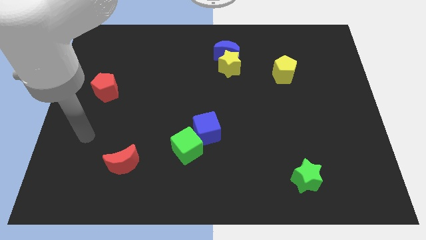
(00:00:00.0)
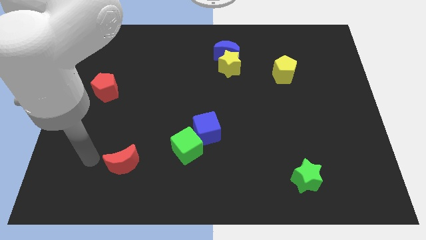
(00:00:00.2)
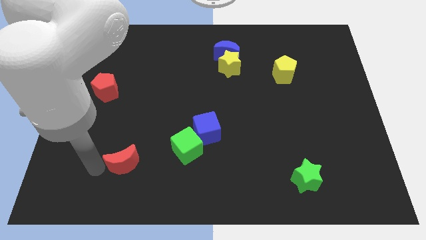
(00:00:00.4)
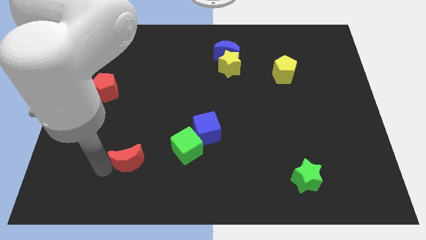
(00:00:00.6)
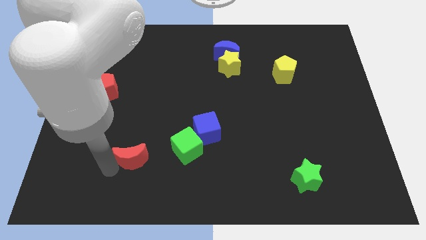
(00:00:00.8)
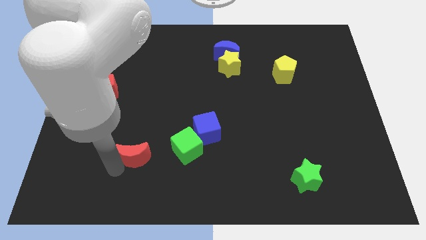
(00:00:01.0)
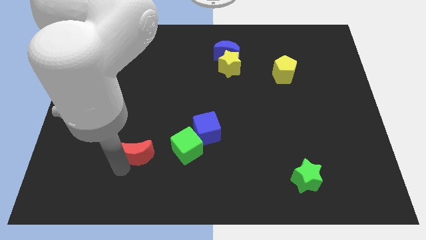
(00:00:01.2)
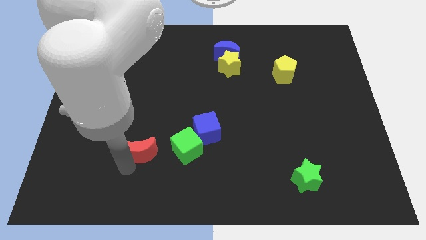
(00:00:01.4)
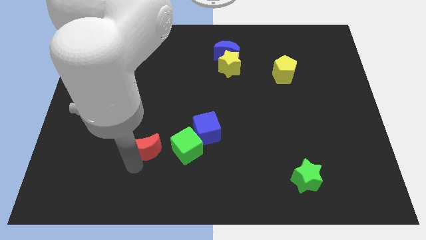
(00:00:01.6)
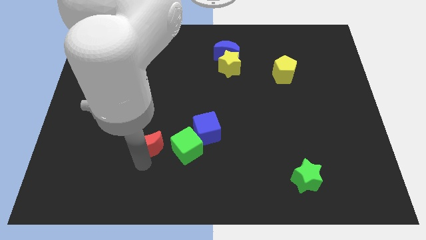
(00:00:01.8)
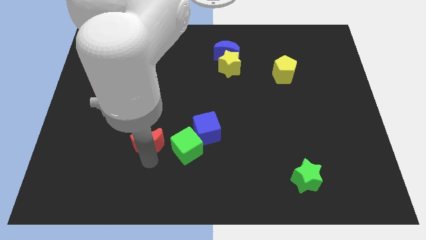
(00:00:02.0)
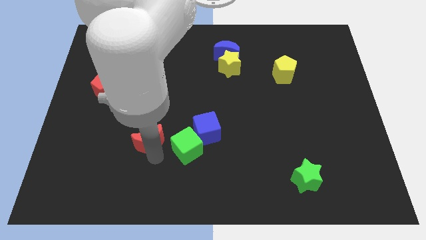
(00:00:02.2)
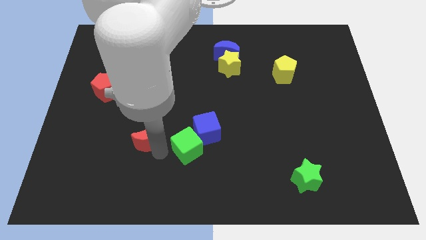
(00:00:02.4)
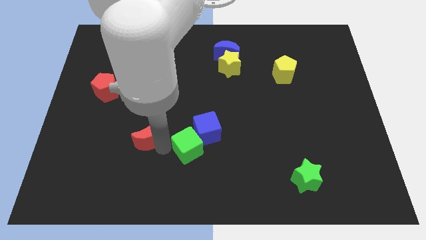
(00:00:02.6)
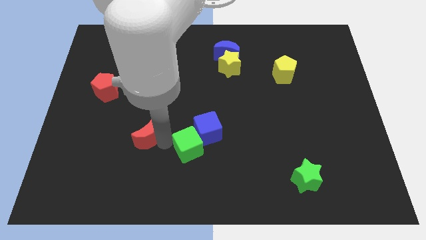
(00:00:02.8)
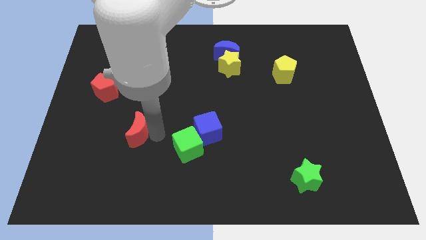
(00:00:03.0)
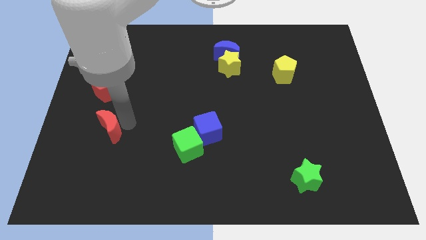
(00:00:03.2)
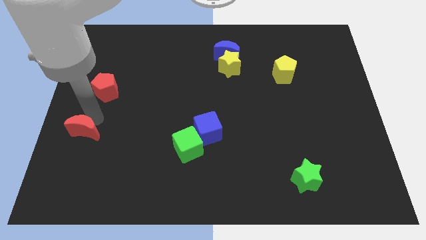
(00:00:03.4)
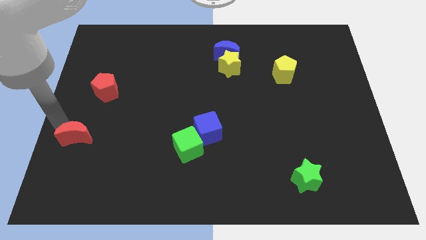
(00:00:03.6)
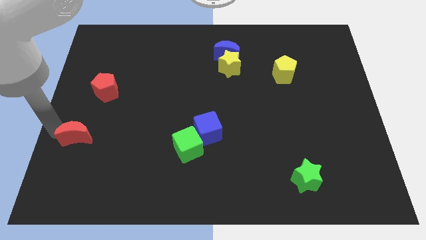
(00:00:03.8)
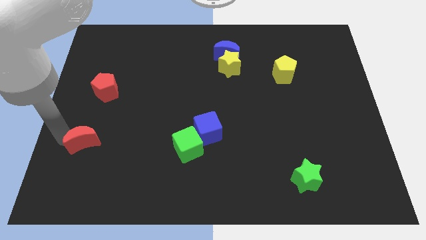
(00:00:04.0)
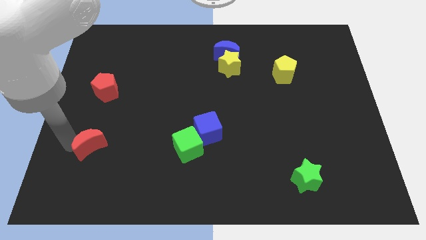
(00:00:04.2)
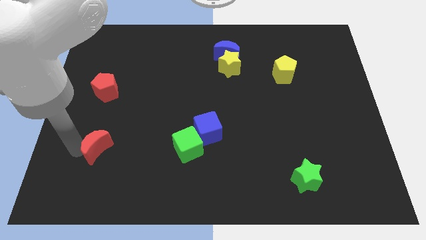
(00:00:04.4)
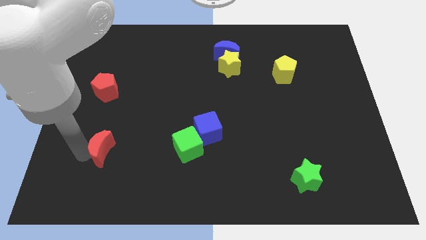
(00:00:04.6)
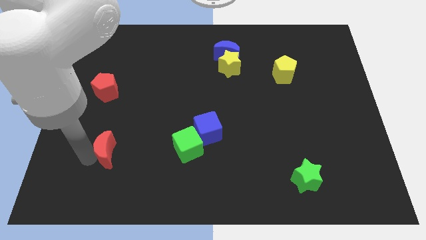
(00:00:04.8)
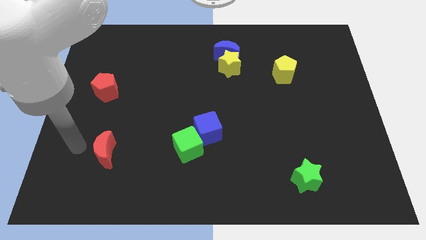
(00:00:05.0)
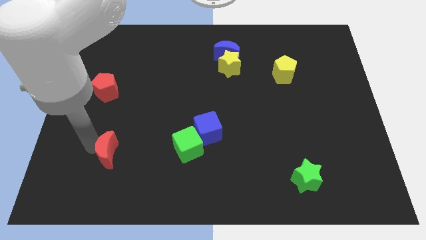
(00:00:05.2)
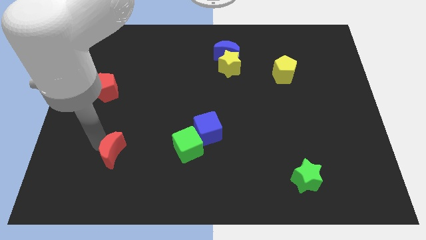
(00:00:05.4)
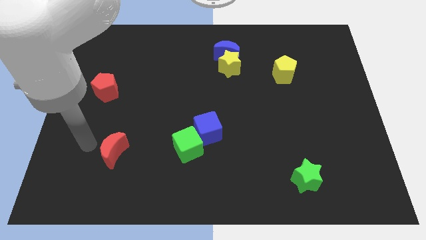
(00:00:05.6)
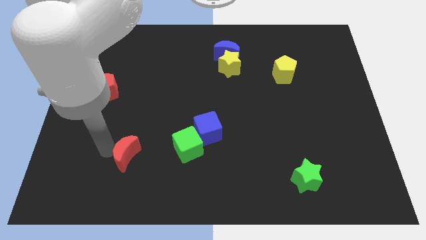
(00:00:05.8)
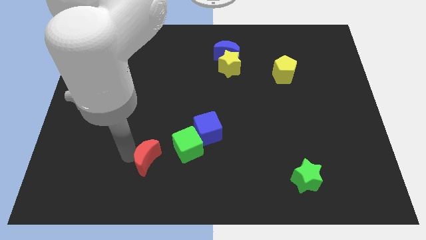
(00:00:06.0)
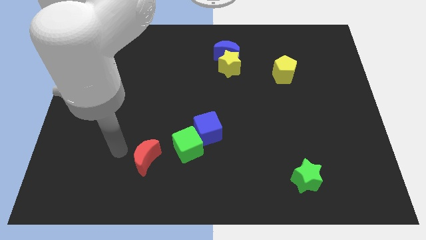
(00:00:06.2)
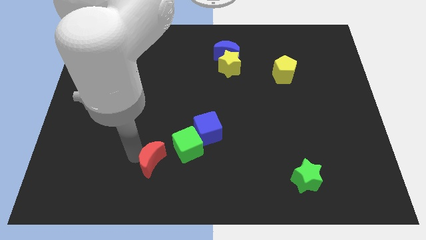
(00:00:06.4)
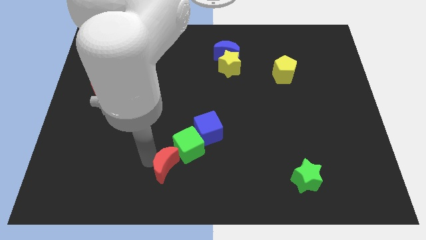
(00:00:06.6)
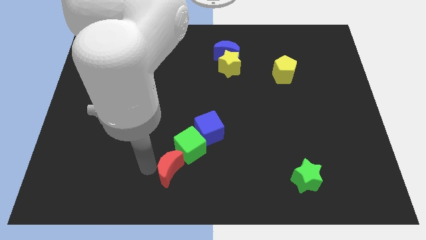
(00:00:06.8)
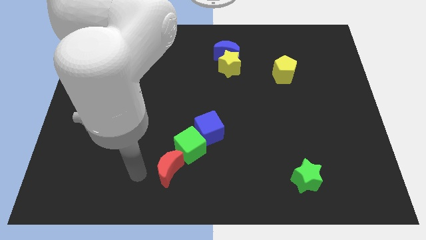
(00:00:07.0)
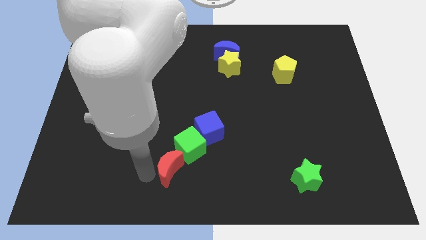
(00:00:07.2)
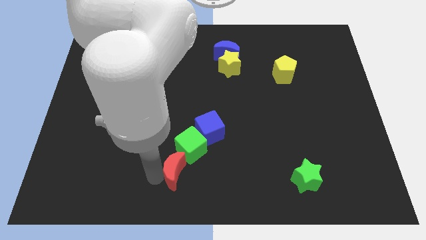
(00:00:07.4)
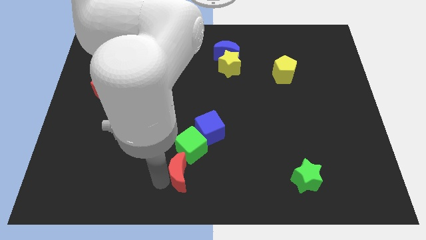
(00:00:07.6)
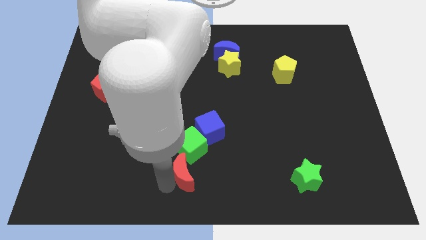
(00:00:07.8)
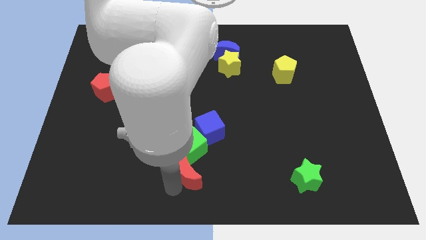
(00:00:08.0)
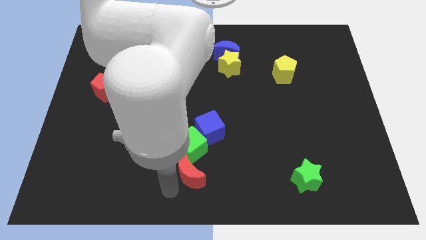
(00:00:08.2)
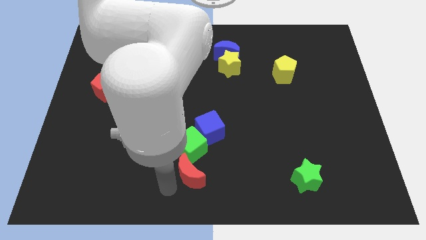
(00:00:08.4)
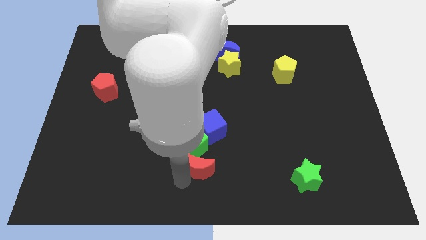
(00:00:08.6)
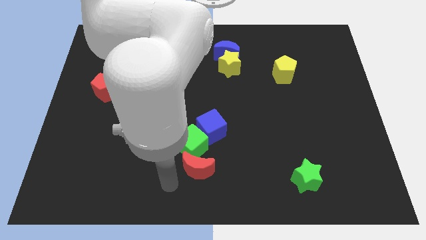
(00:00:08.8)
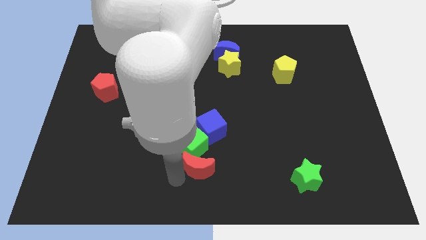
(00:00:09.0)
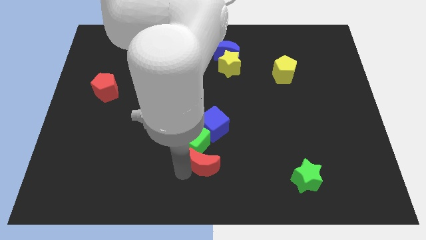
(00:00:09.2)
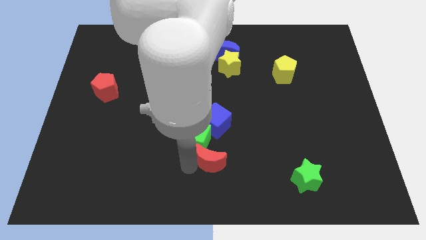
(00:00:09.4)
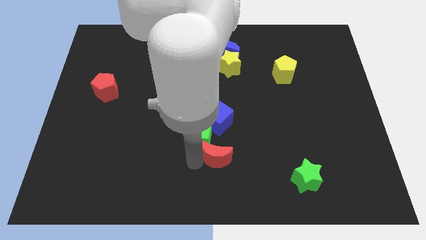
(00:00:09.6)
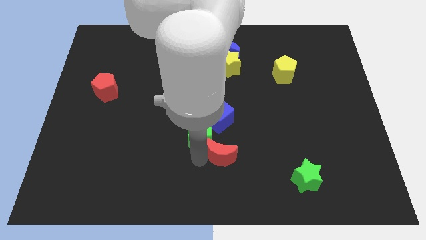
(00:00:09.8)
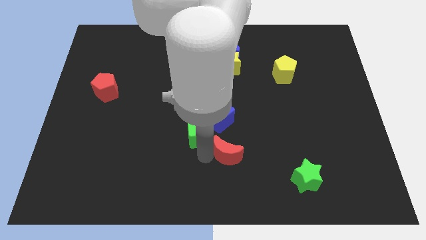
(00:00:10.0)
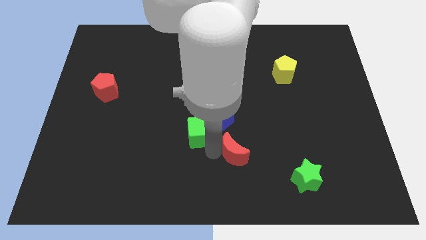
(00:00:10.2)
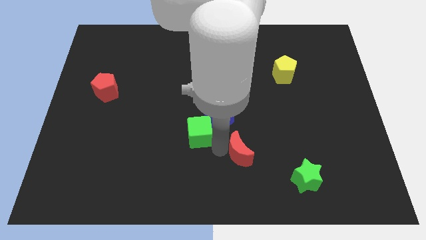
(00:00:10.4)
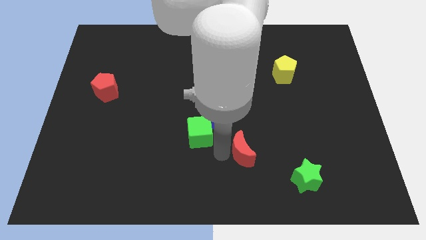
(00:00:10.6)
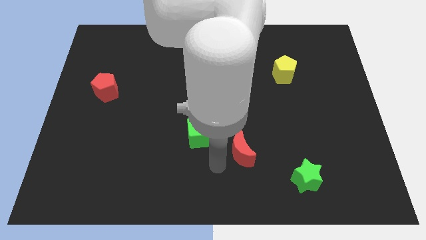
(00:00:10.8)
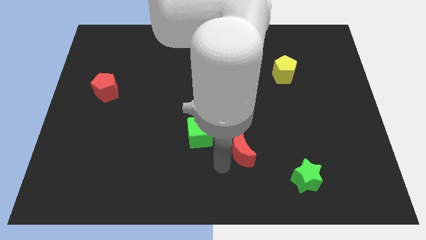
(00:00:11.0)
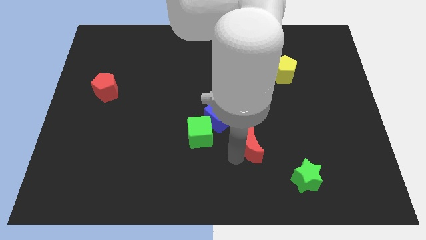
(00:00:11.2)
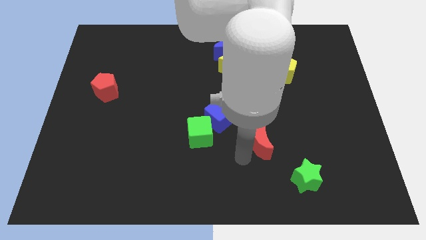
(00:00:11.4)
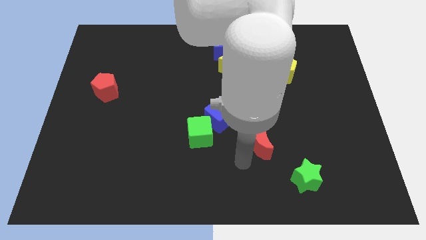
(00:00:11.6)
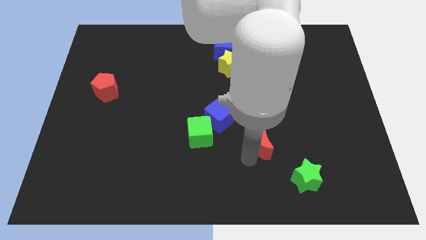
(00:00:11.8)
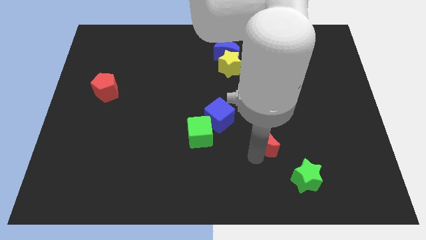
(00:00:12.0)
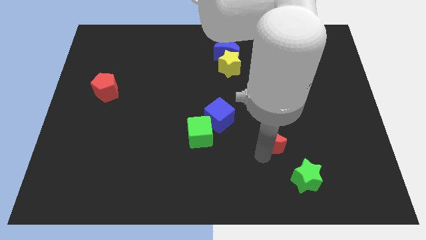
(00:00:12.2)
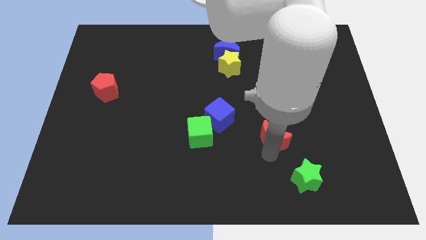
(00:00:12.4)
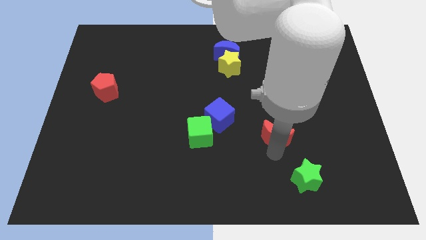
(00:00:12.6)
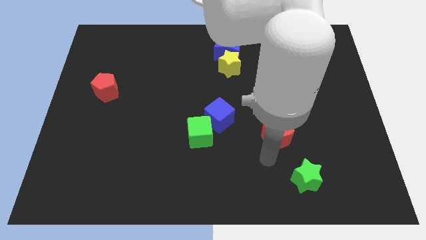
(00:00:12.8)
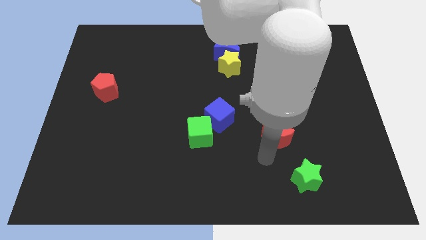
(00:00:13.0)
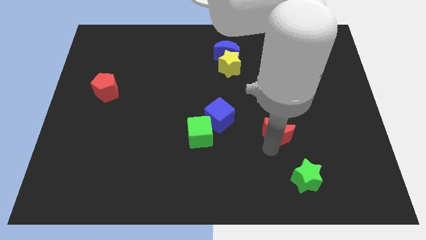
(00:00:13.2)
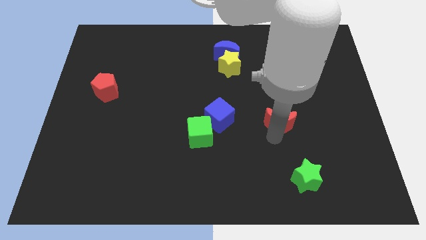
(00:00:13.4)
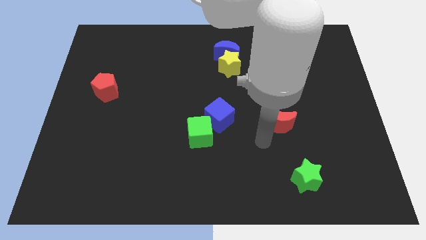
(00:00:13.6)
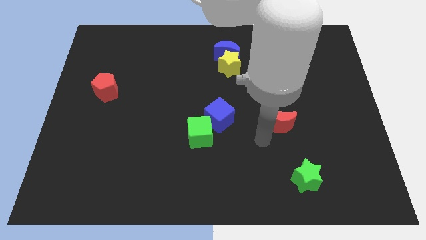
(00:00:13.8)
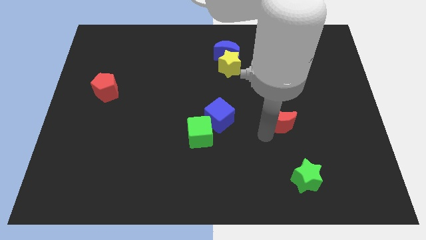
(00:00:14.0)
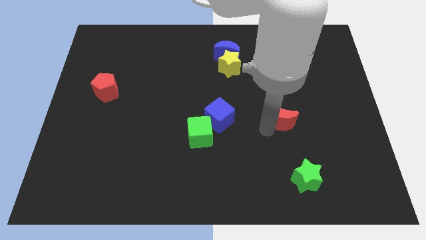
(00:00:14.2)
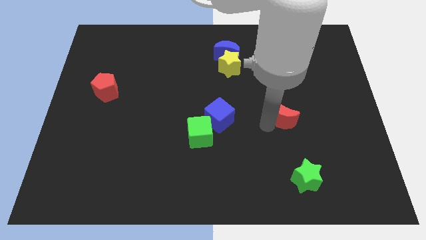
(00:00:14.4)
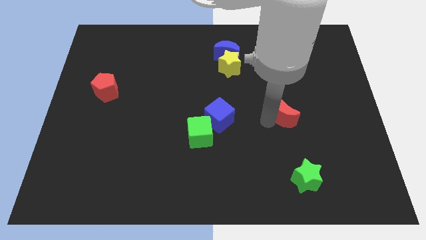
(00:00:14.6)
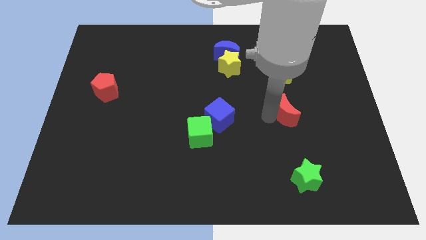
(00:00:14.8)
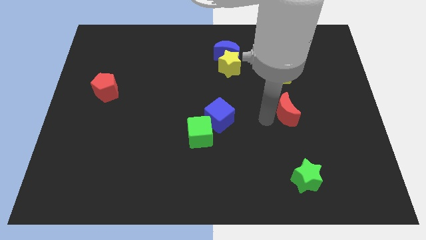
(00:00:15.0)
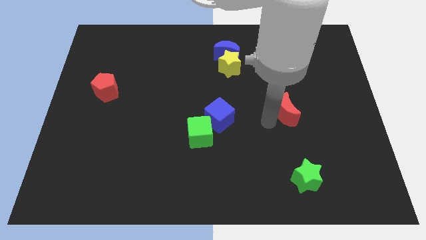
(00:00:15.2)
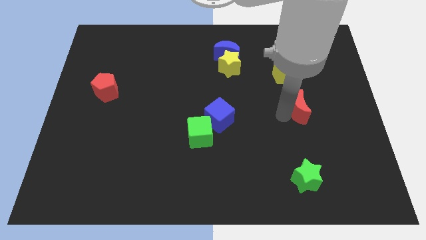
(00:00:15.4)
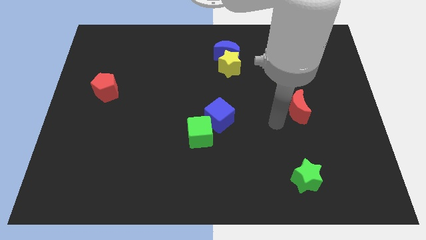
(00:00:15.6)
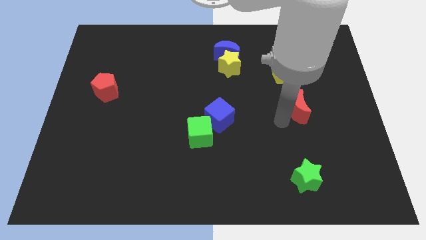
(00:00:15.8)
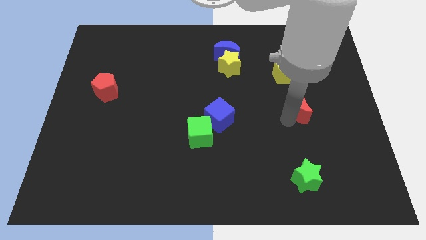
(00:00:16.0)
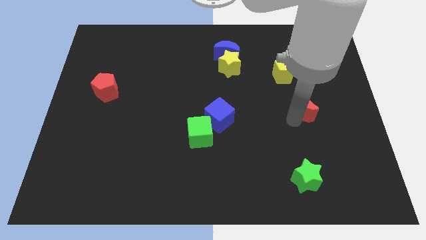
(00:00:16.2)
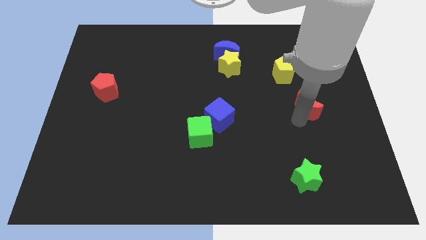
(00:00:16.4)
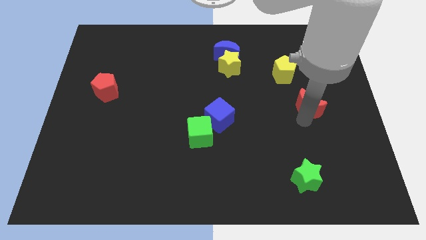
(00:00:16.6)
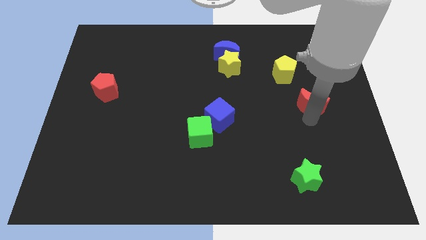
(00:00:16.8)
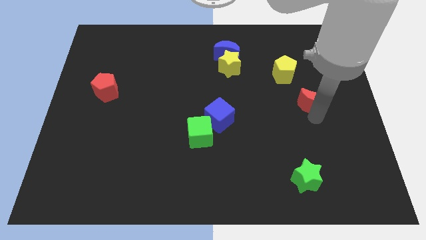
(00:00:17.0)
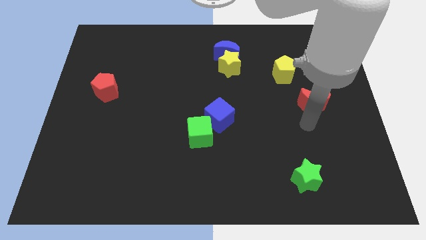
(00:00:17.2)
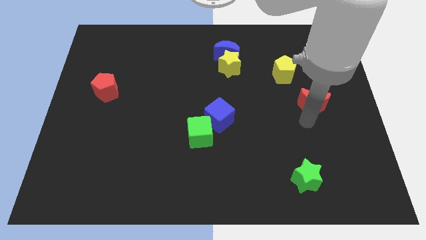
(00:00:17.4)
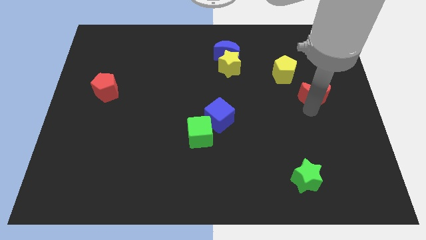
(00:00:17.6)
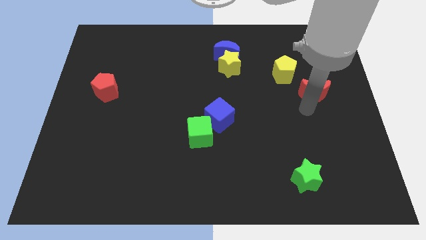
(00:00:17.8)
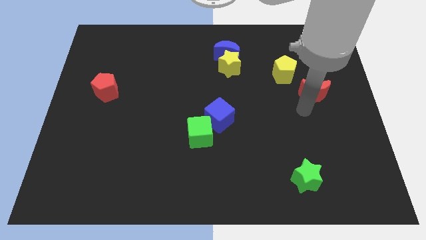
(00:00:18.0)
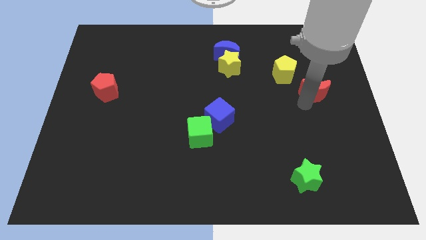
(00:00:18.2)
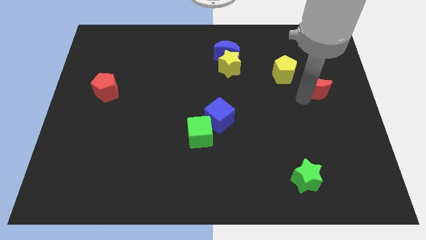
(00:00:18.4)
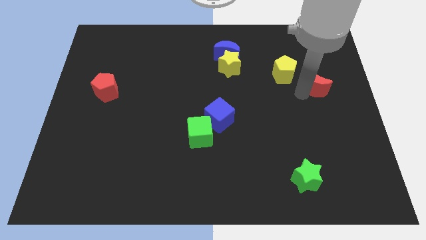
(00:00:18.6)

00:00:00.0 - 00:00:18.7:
move the red moon just right of the yellow pentagon
